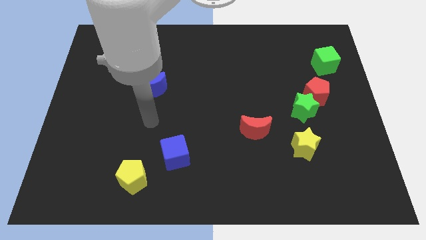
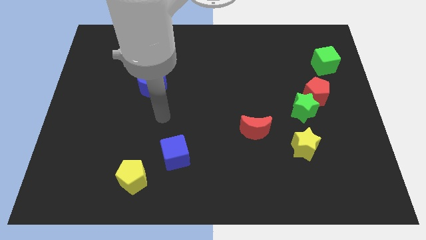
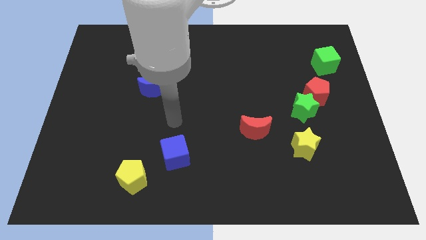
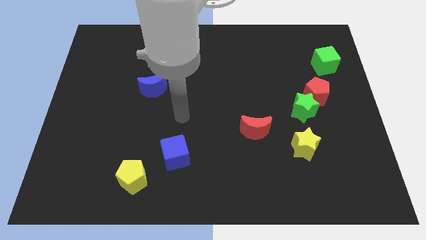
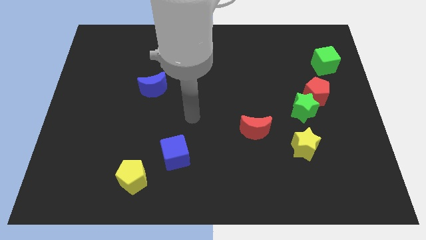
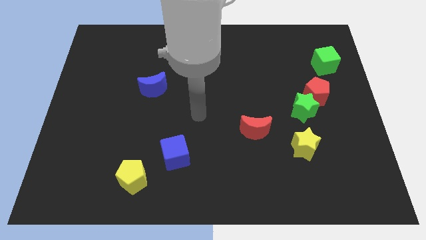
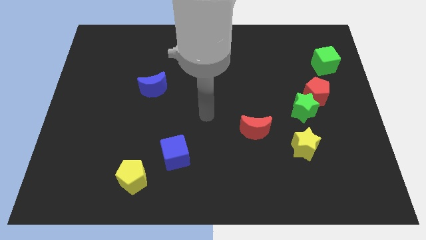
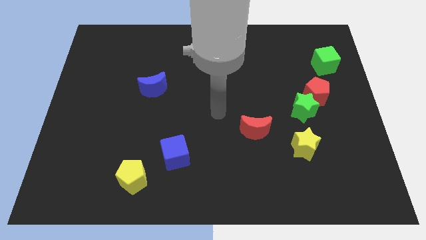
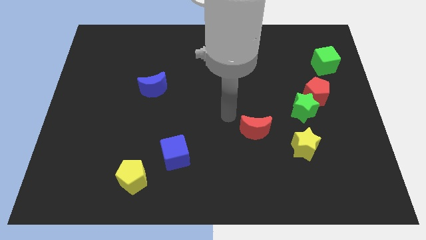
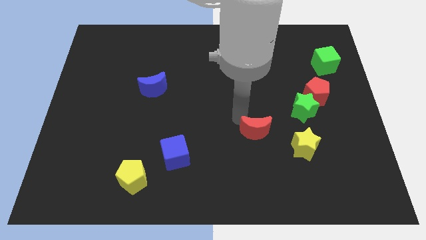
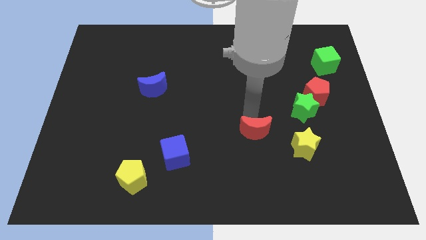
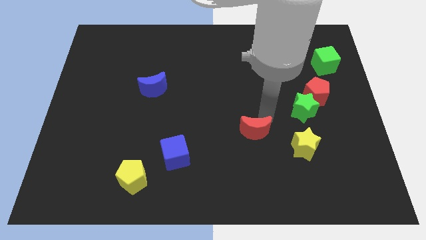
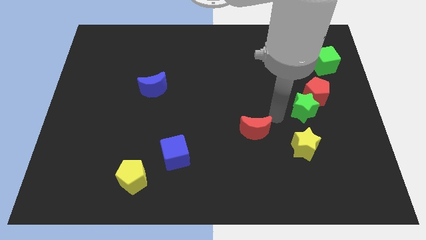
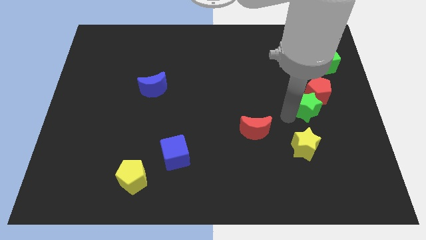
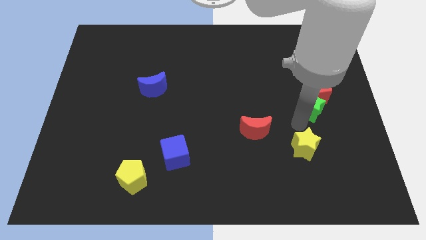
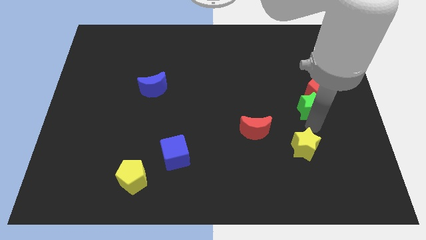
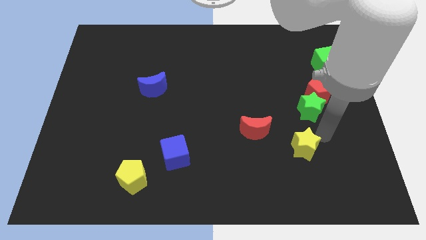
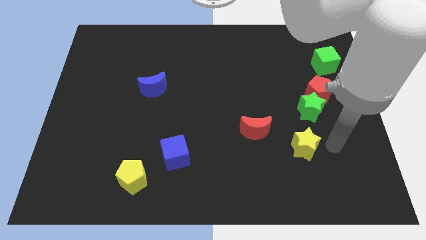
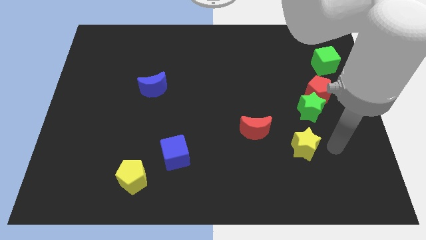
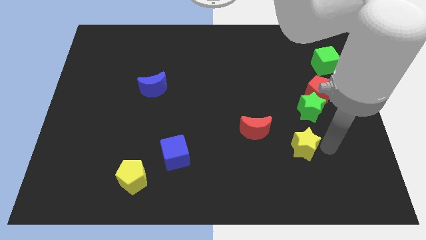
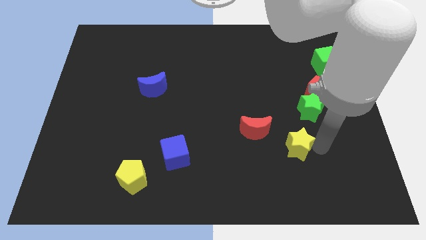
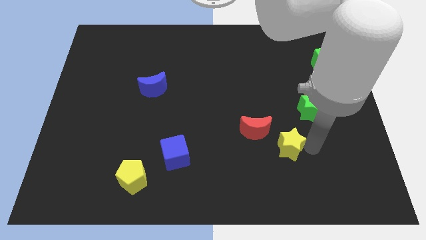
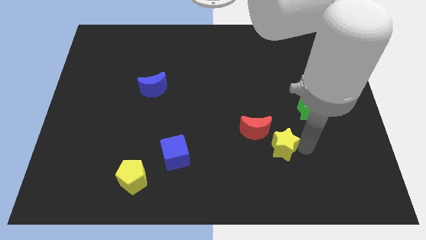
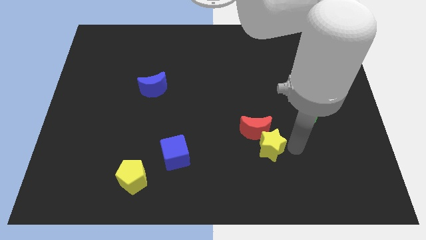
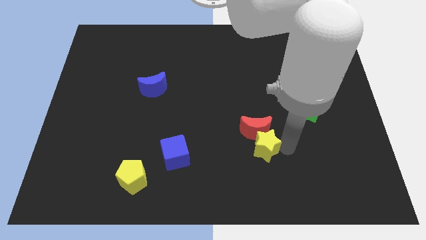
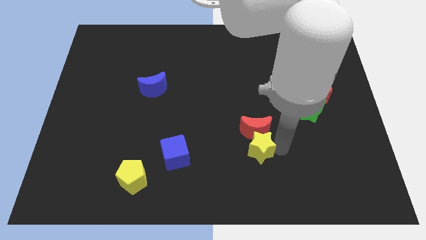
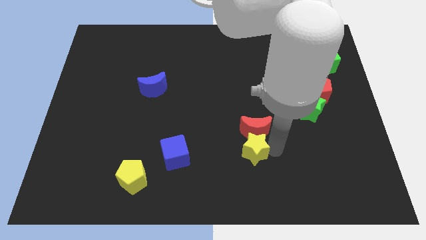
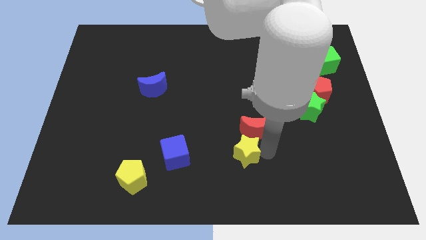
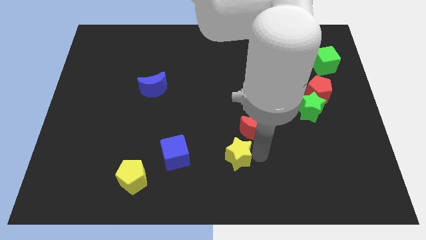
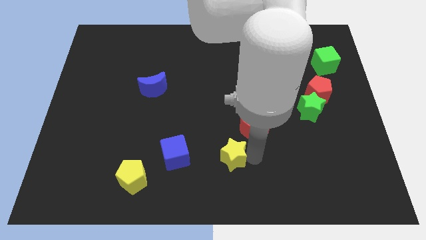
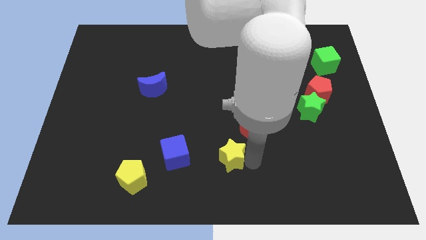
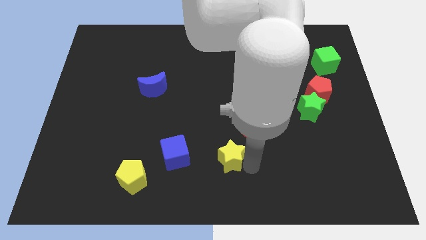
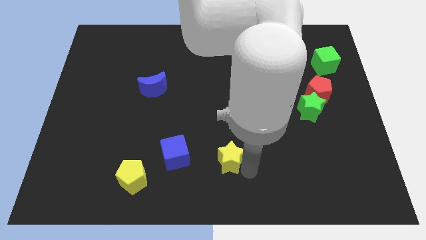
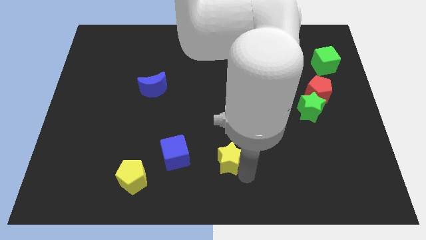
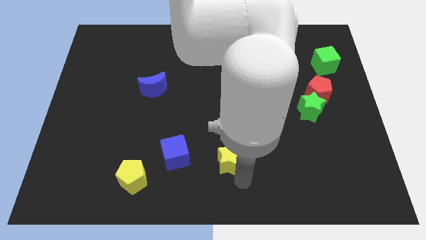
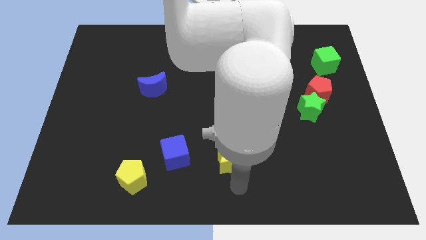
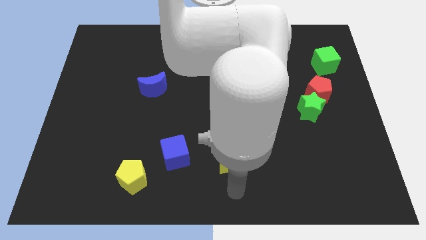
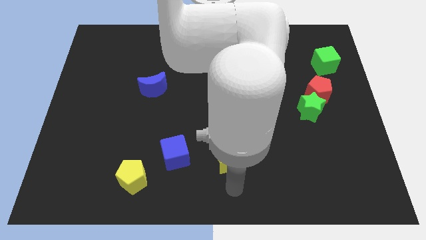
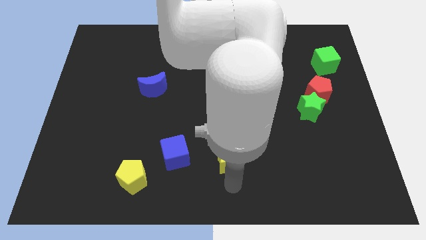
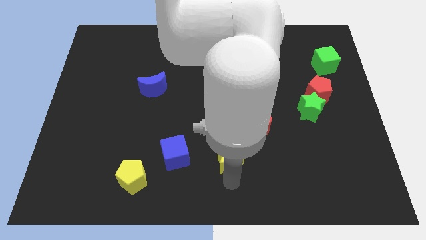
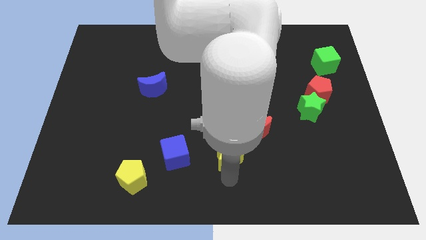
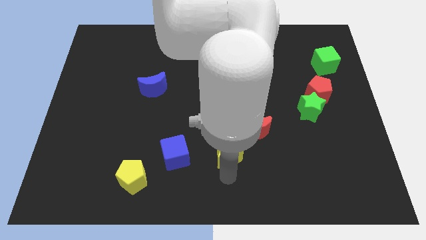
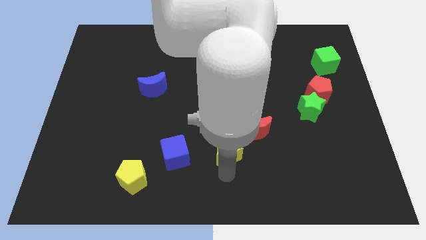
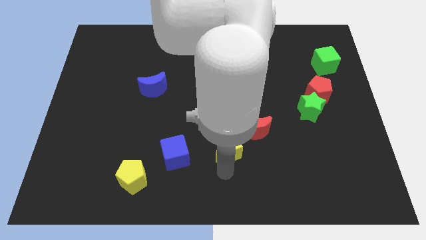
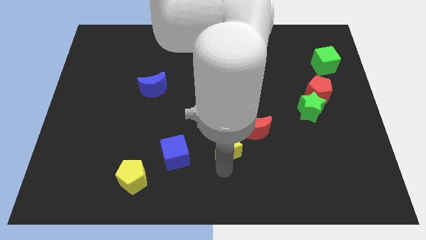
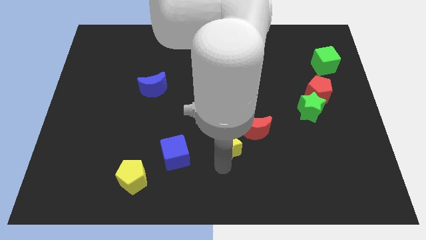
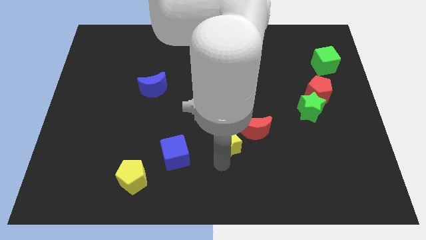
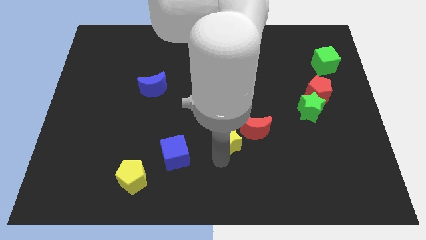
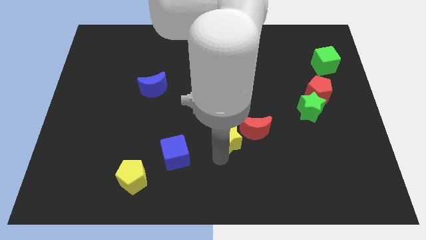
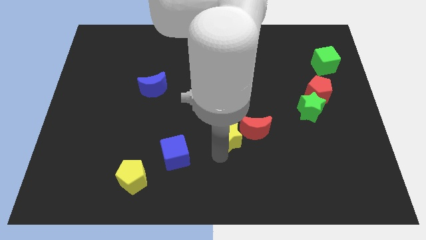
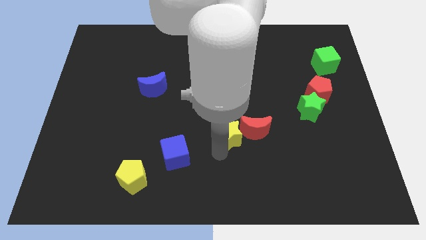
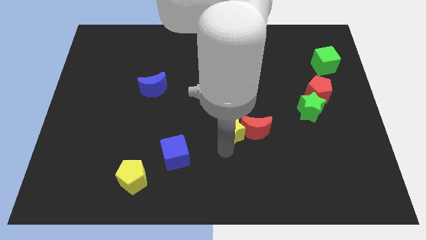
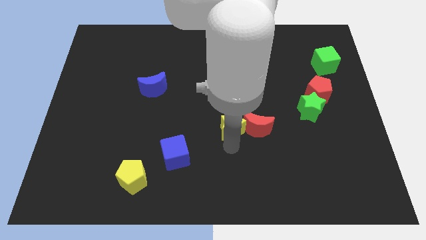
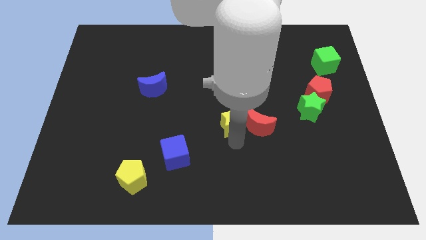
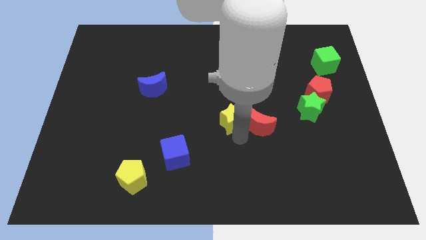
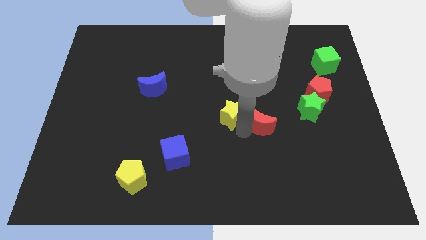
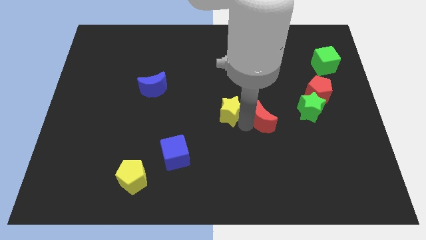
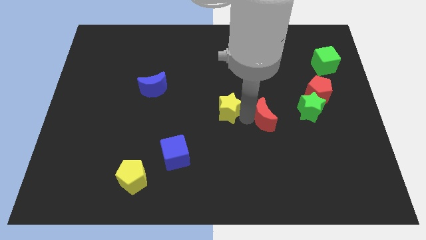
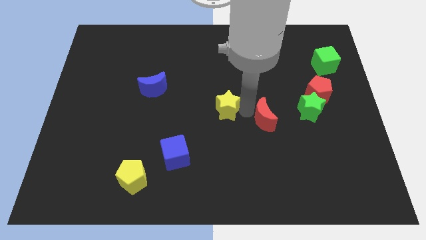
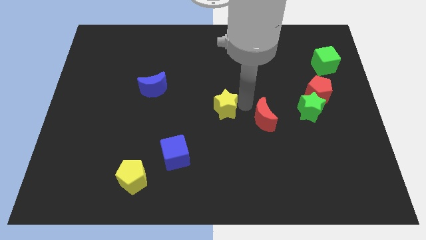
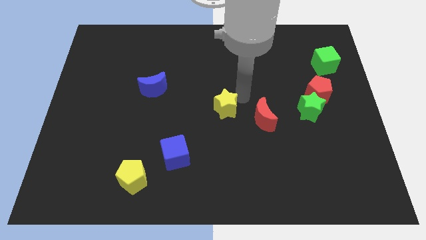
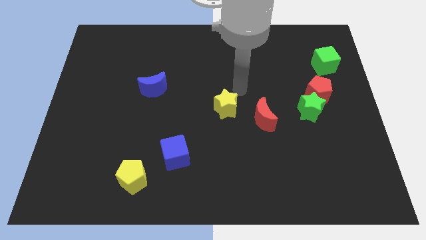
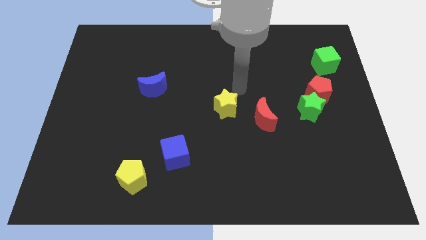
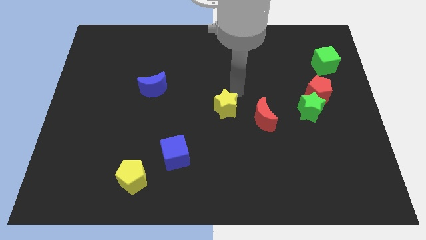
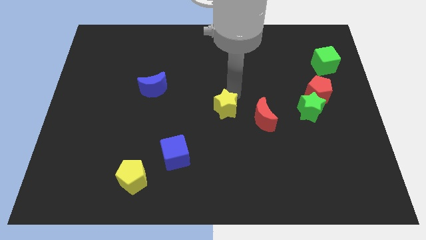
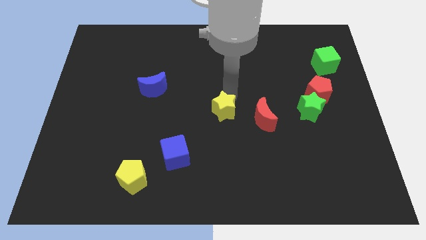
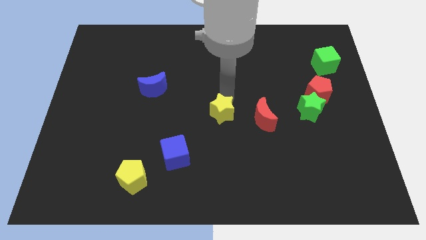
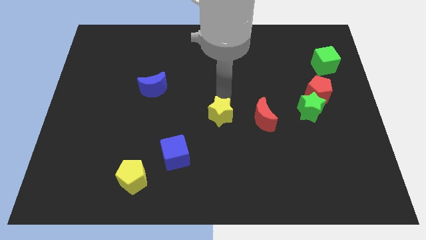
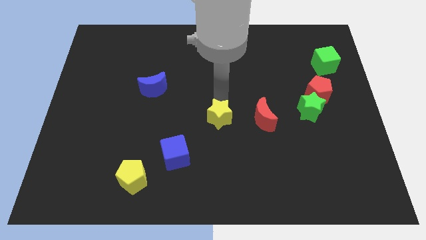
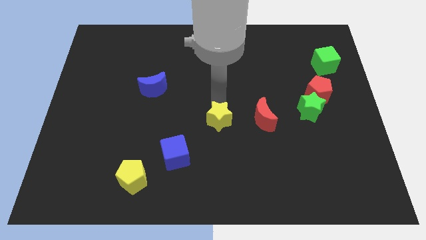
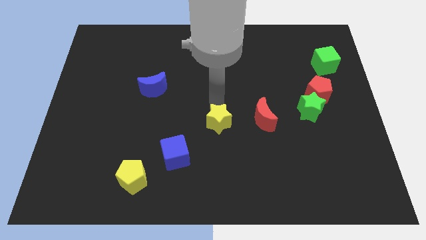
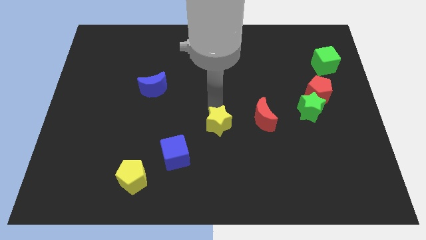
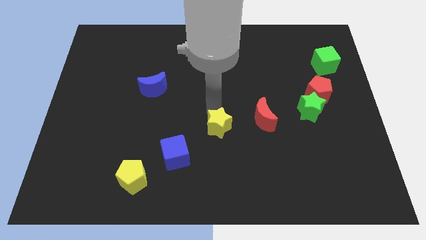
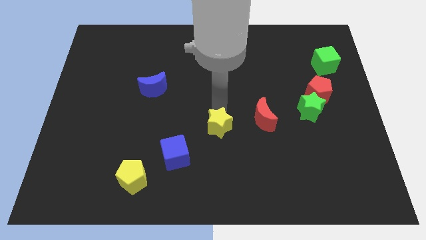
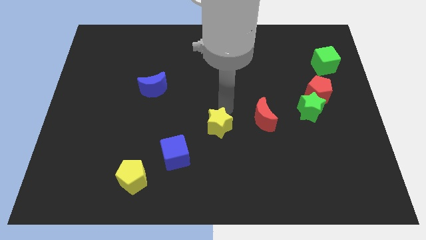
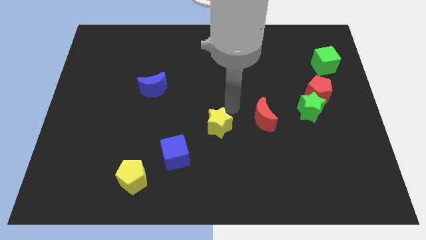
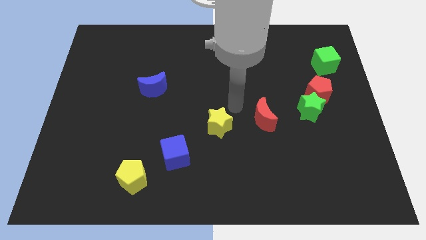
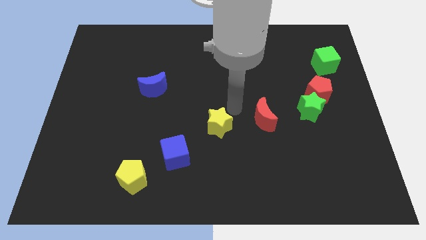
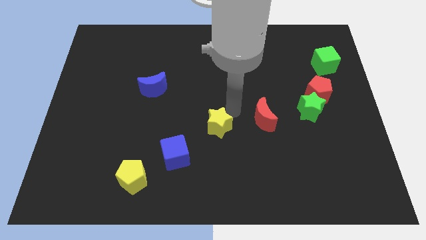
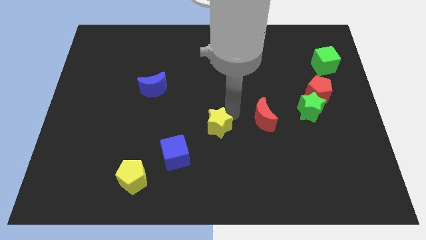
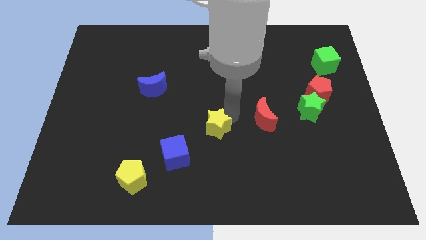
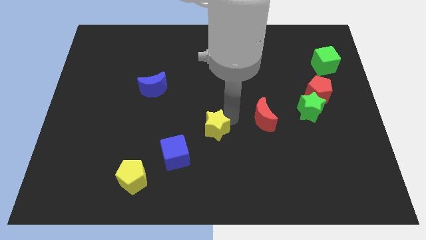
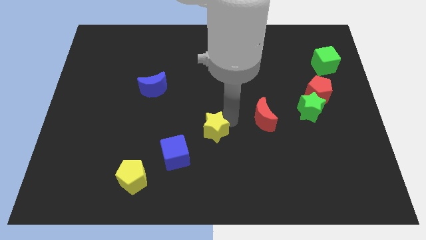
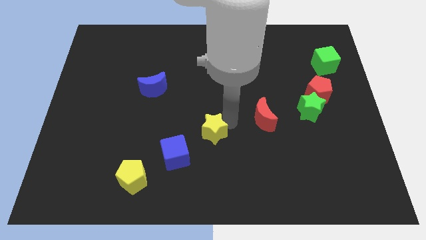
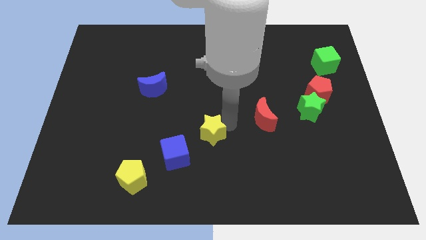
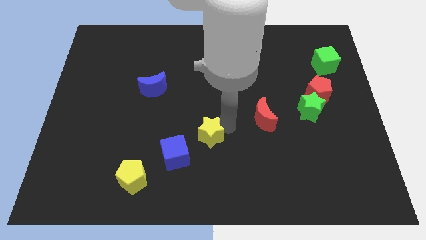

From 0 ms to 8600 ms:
move the yellow star to the left
